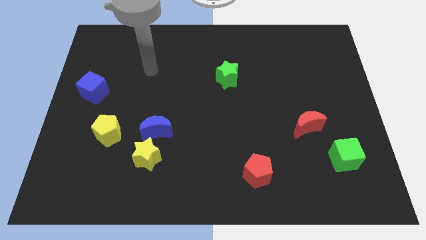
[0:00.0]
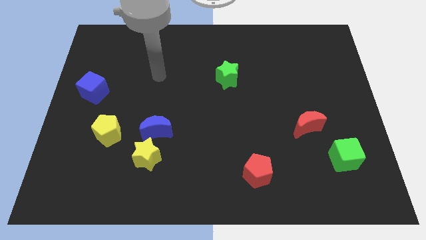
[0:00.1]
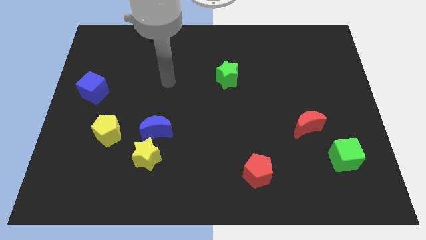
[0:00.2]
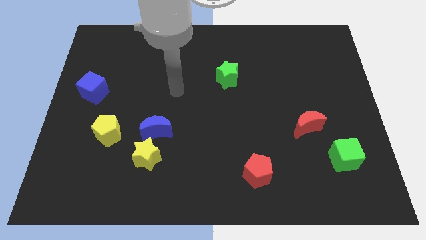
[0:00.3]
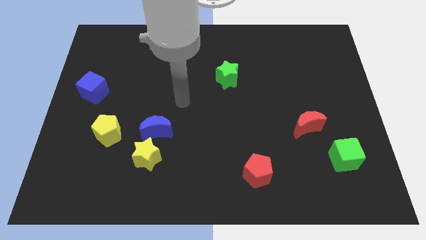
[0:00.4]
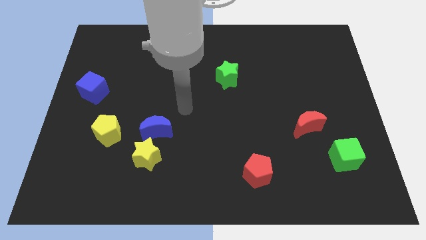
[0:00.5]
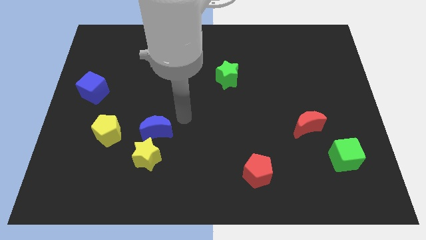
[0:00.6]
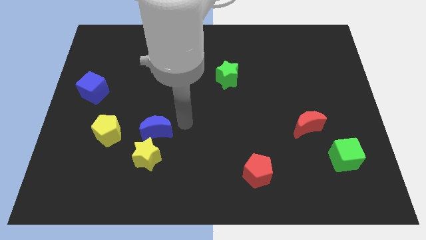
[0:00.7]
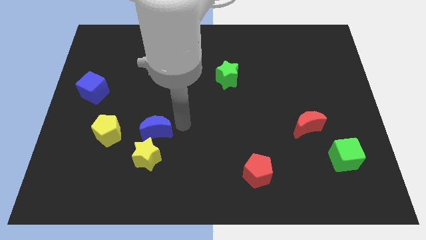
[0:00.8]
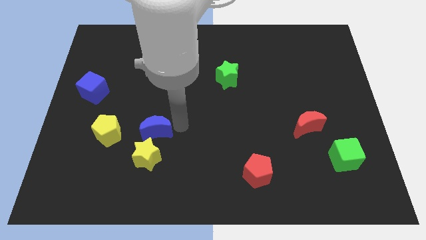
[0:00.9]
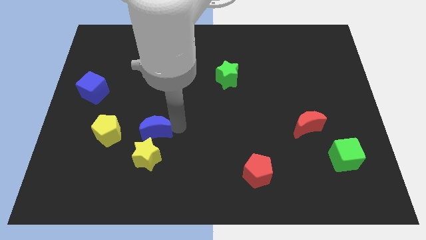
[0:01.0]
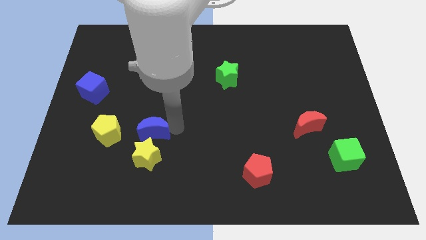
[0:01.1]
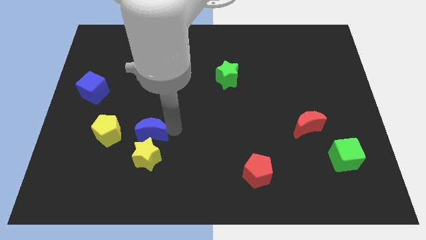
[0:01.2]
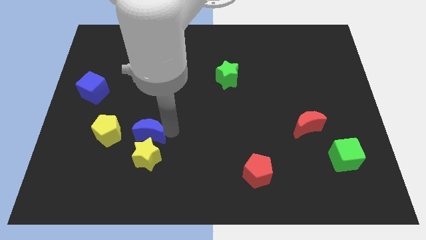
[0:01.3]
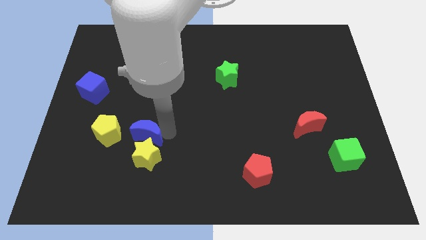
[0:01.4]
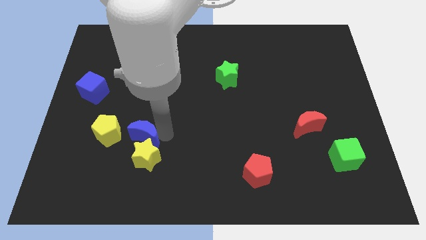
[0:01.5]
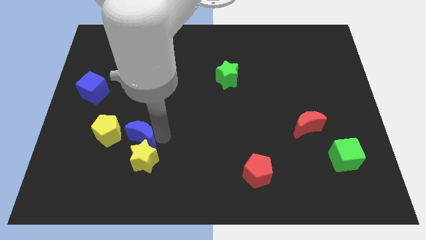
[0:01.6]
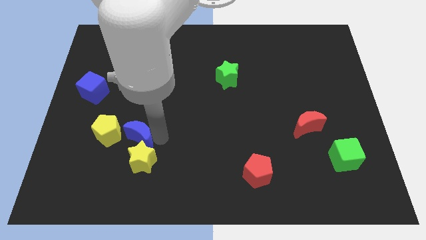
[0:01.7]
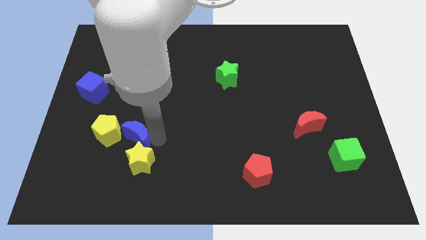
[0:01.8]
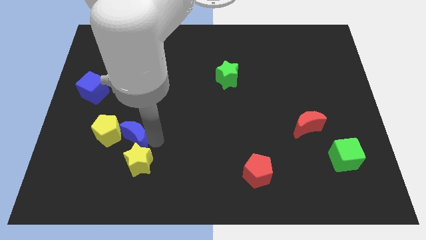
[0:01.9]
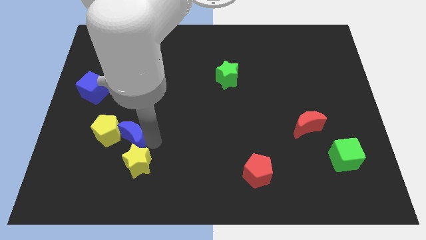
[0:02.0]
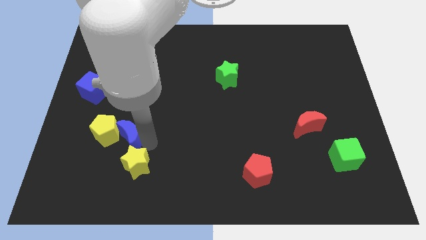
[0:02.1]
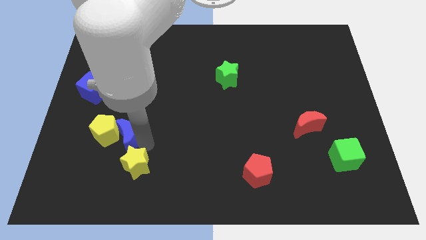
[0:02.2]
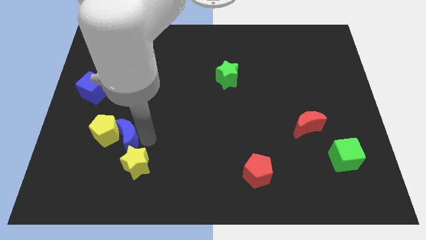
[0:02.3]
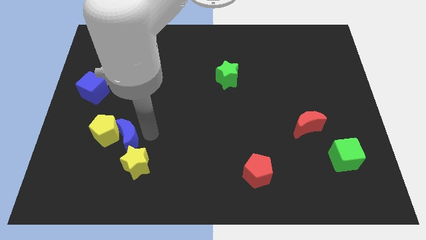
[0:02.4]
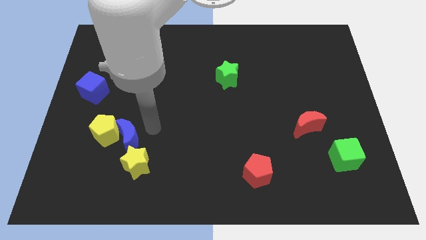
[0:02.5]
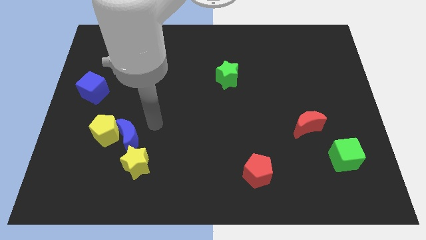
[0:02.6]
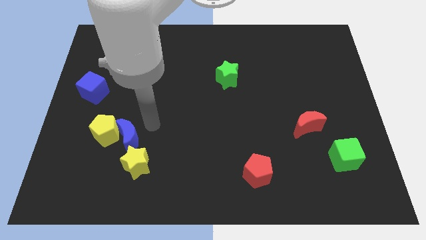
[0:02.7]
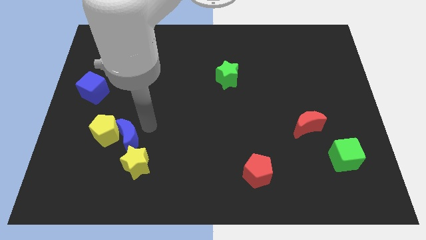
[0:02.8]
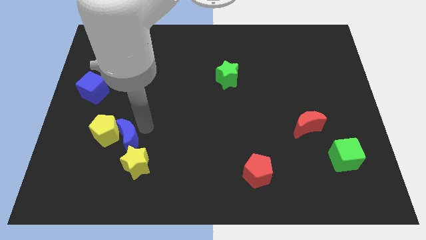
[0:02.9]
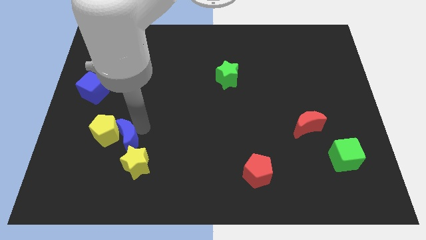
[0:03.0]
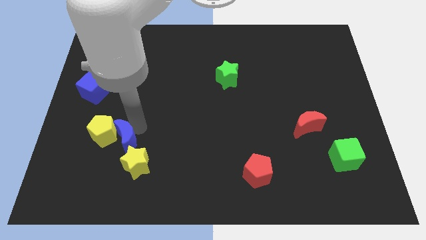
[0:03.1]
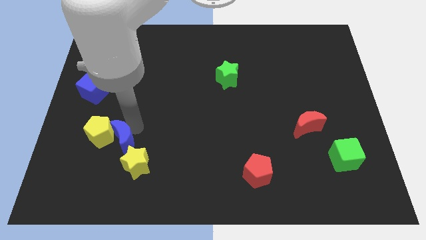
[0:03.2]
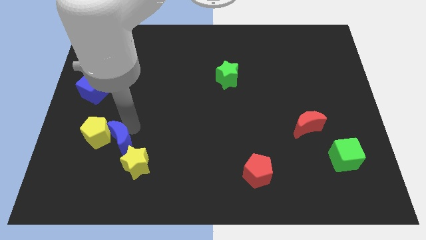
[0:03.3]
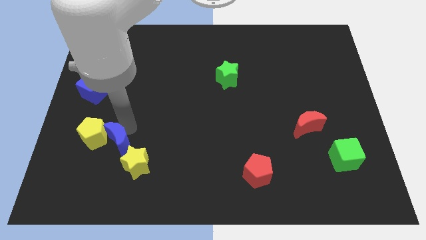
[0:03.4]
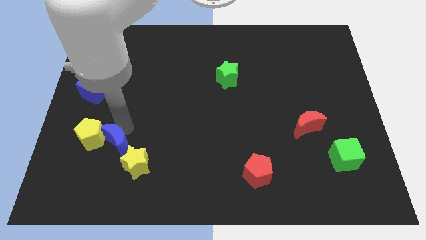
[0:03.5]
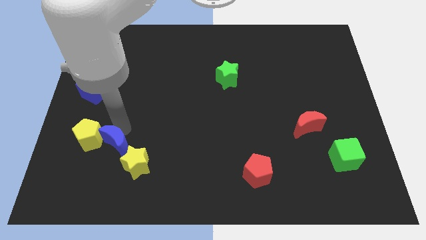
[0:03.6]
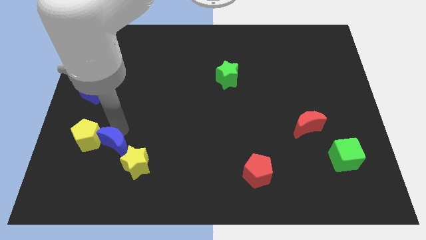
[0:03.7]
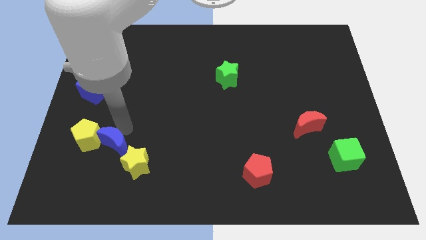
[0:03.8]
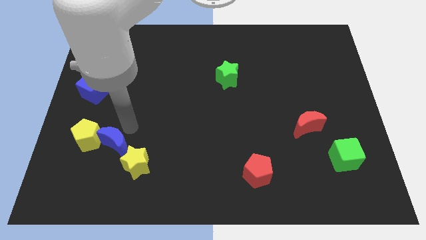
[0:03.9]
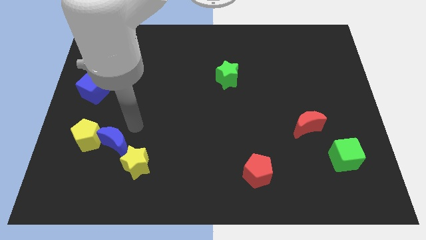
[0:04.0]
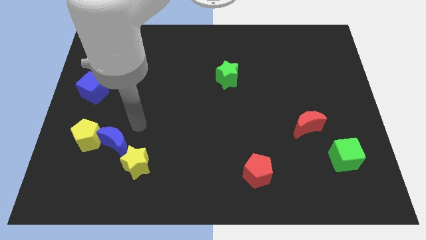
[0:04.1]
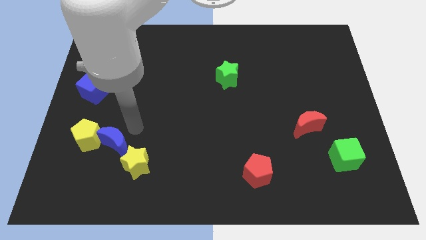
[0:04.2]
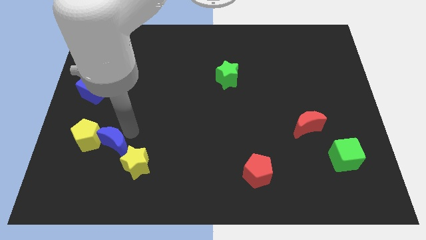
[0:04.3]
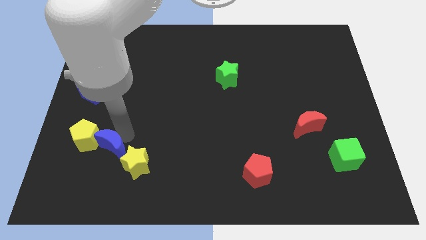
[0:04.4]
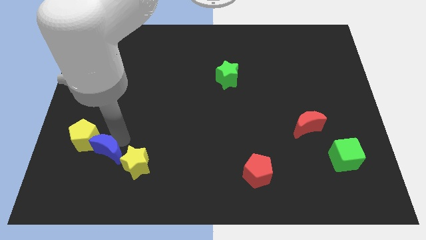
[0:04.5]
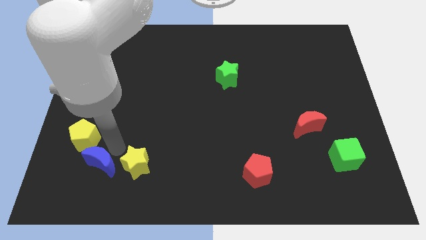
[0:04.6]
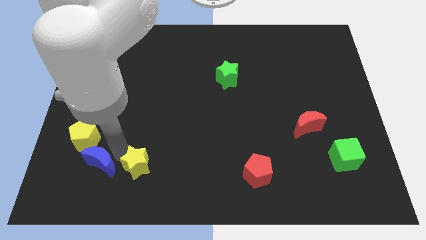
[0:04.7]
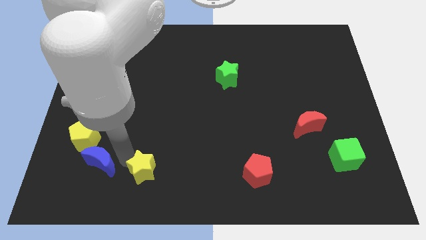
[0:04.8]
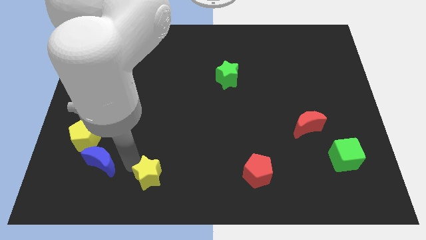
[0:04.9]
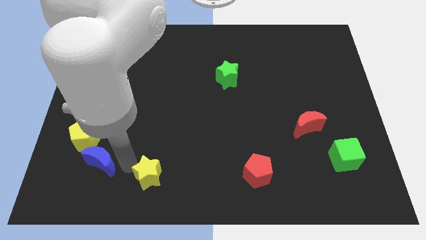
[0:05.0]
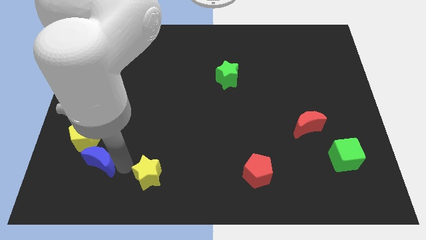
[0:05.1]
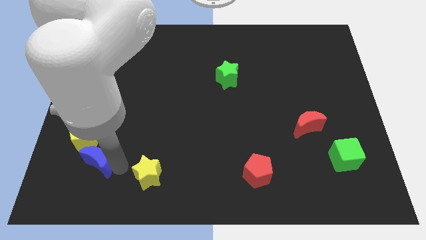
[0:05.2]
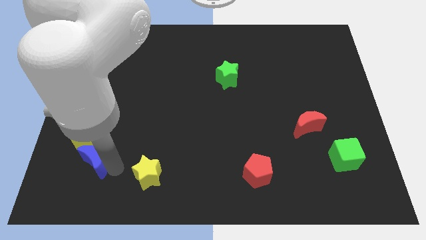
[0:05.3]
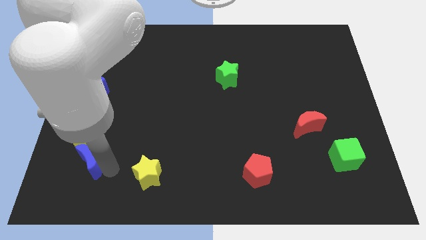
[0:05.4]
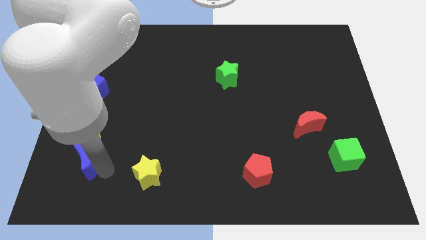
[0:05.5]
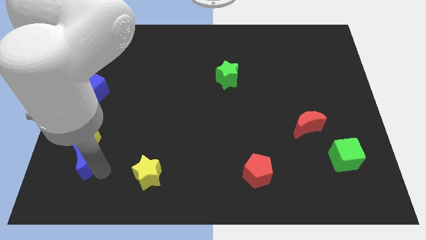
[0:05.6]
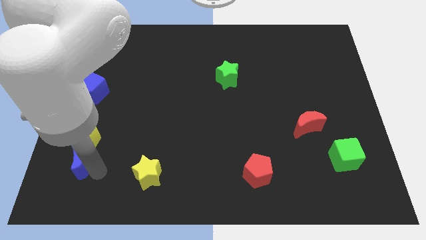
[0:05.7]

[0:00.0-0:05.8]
slide the blue moon to the bottom left of the yellow pentagon

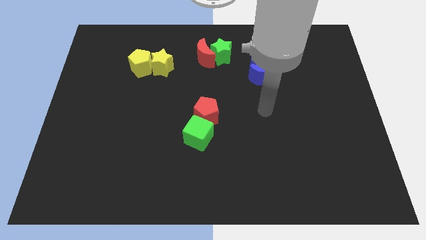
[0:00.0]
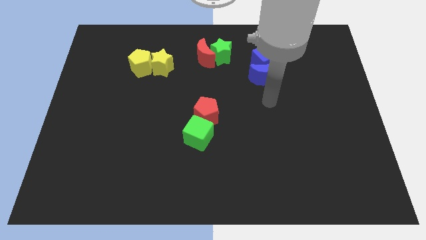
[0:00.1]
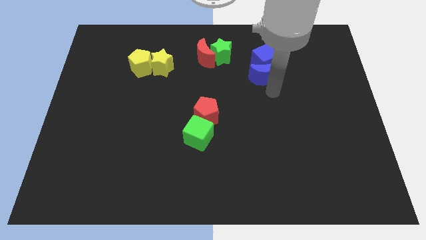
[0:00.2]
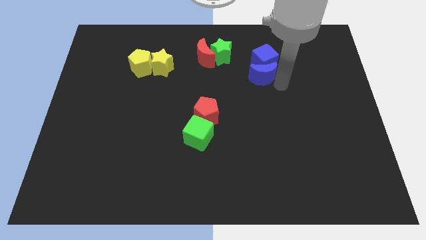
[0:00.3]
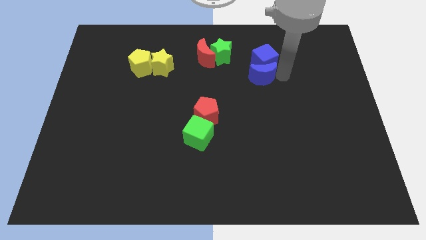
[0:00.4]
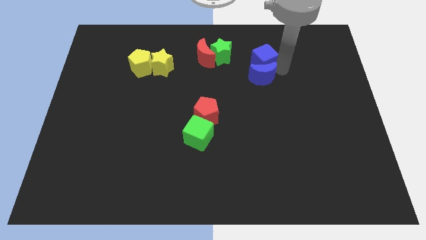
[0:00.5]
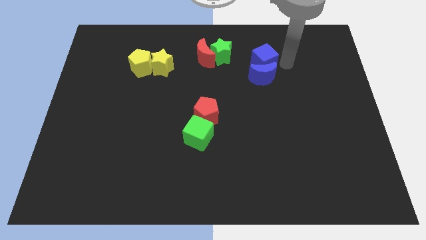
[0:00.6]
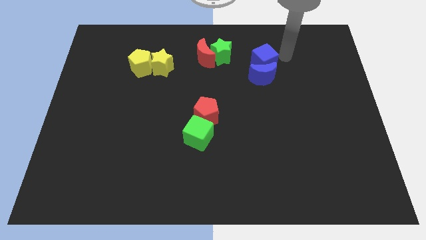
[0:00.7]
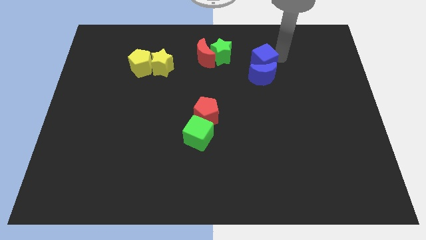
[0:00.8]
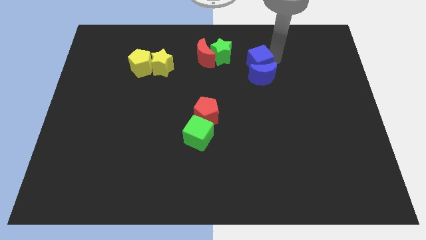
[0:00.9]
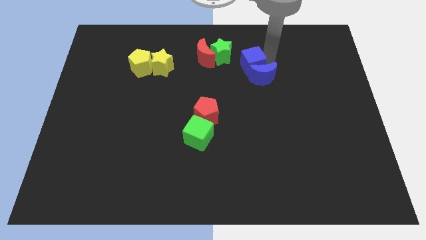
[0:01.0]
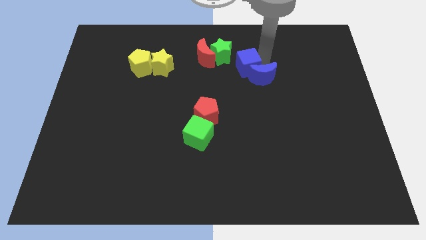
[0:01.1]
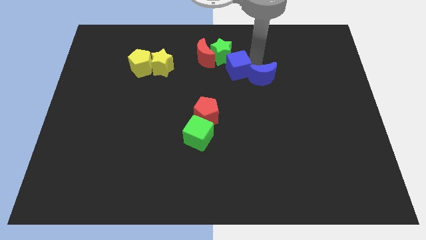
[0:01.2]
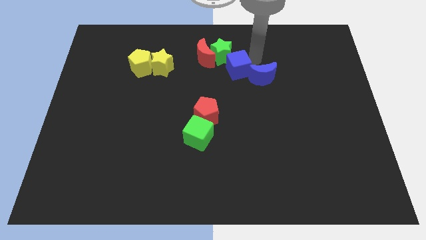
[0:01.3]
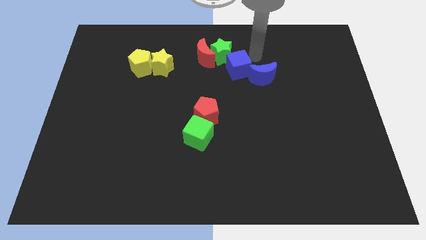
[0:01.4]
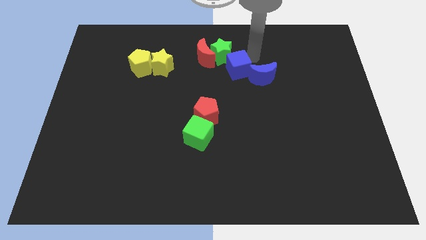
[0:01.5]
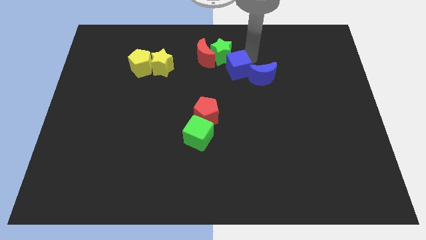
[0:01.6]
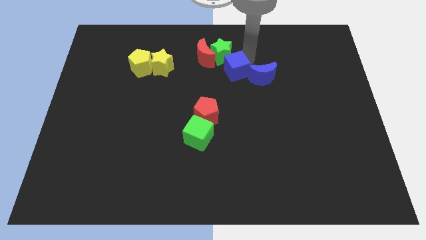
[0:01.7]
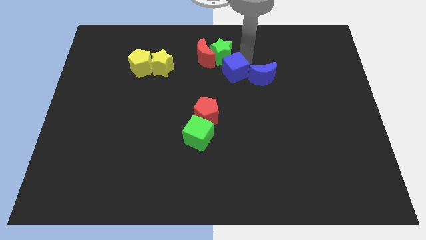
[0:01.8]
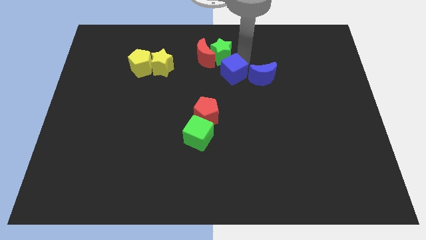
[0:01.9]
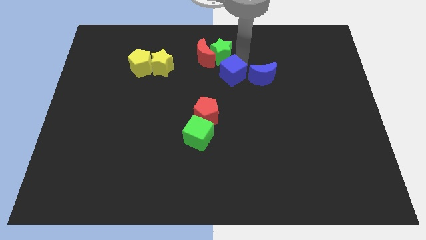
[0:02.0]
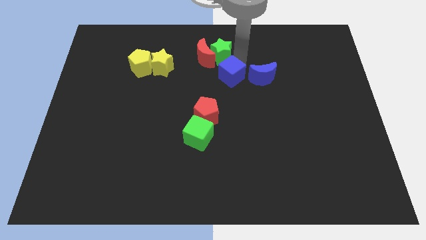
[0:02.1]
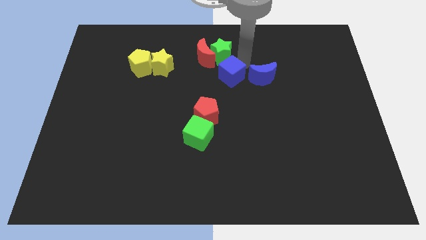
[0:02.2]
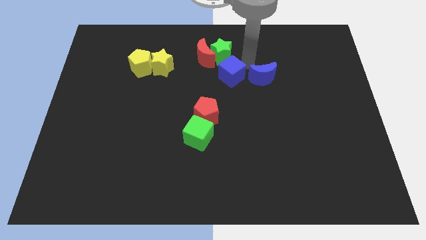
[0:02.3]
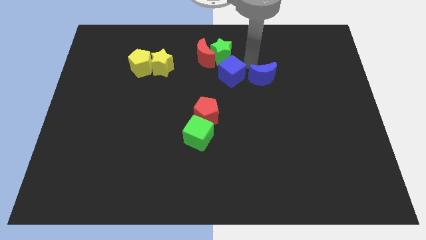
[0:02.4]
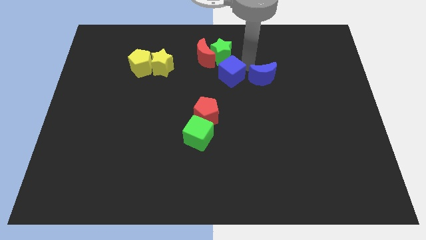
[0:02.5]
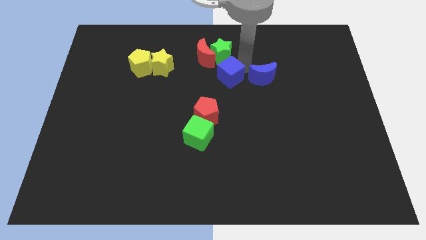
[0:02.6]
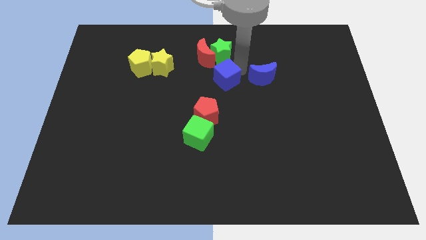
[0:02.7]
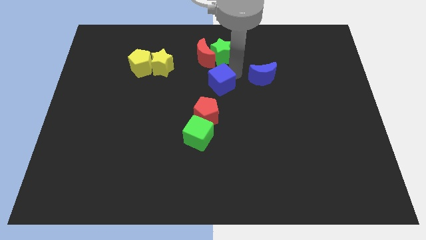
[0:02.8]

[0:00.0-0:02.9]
push the blue cube to the bottom side of the red moon
